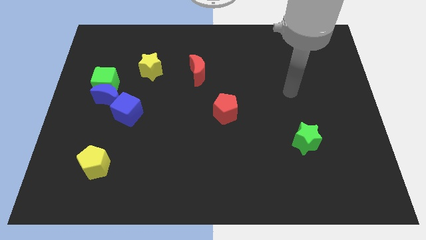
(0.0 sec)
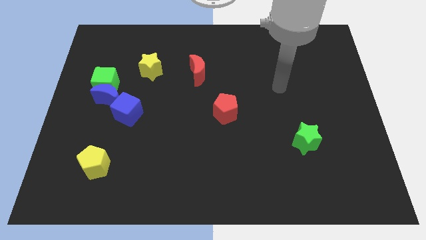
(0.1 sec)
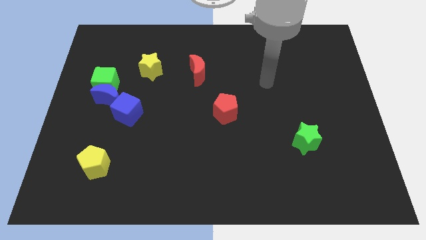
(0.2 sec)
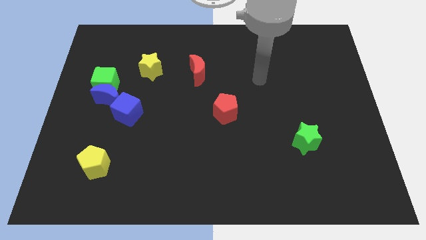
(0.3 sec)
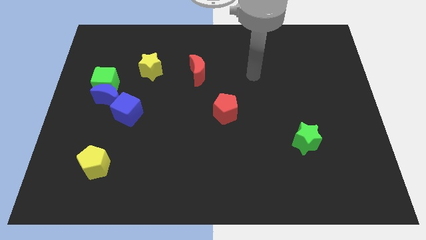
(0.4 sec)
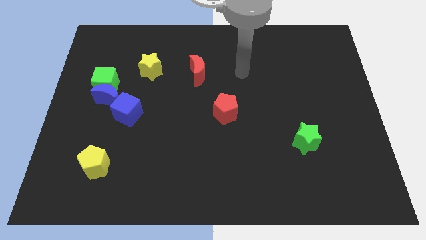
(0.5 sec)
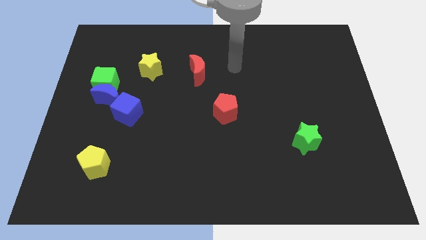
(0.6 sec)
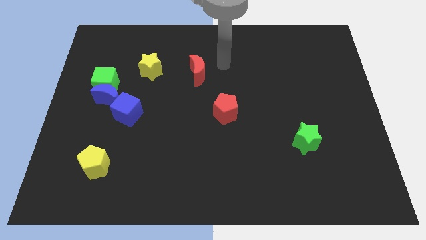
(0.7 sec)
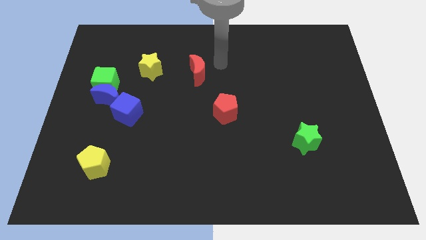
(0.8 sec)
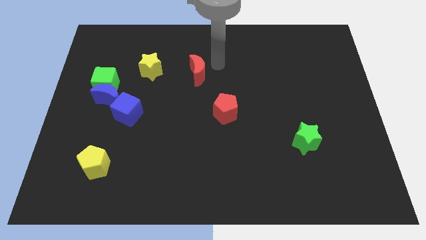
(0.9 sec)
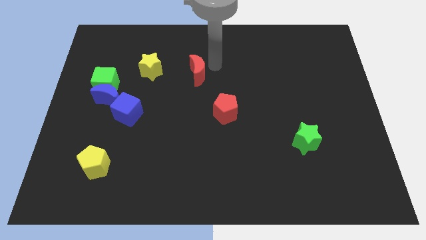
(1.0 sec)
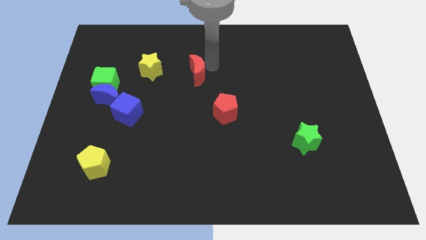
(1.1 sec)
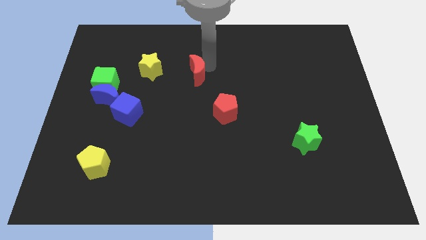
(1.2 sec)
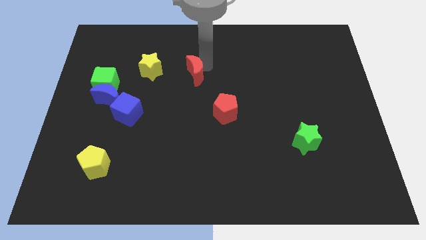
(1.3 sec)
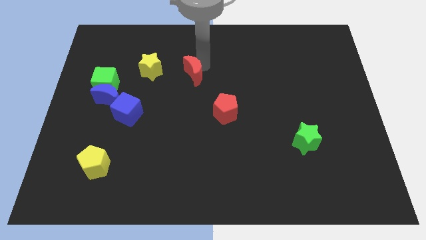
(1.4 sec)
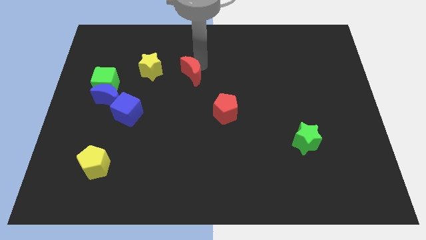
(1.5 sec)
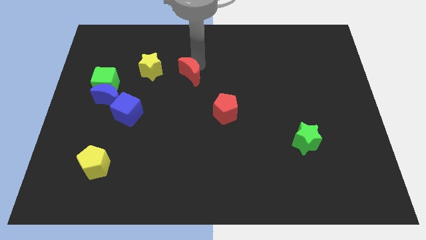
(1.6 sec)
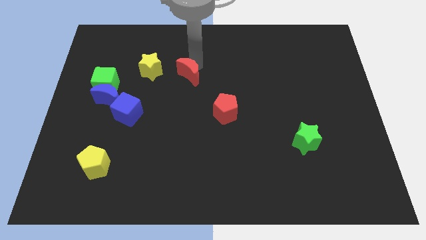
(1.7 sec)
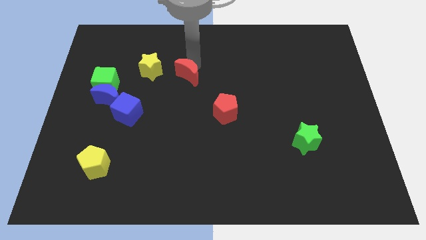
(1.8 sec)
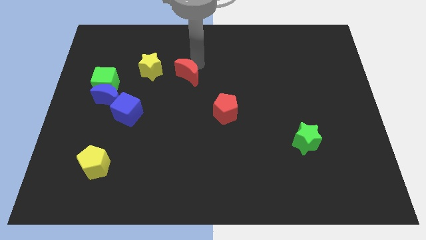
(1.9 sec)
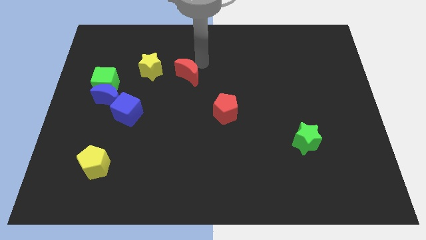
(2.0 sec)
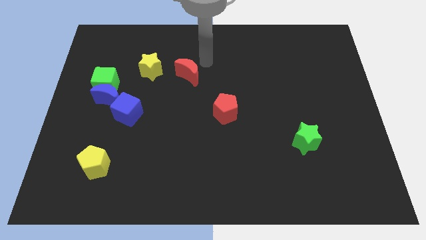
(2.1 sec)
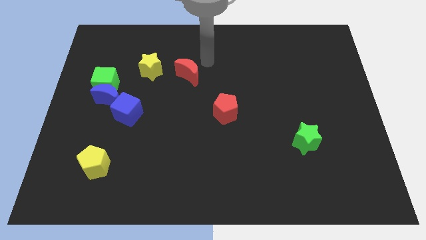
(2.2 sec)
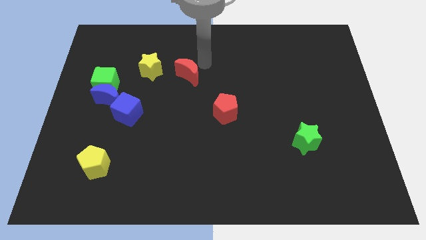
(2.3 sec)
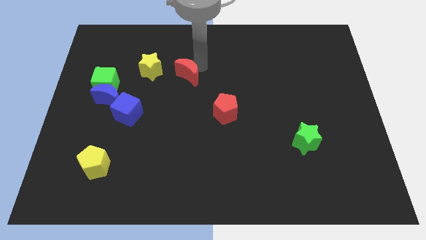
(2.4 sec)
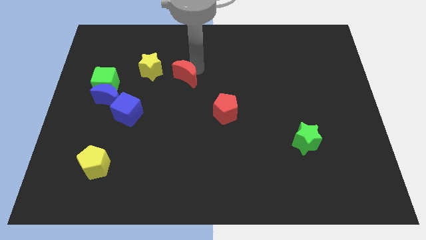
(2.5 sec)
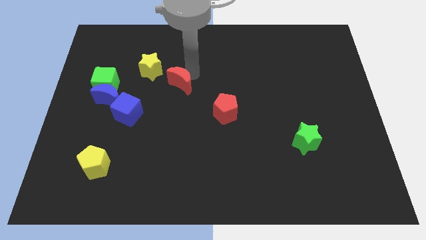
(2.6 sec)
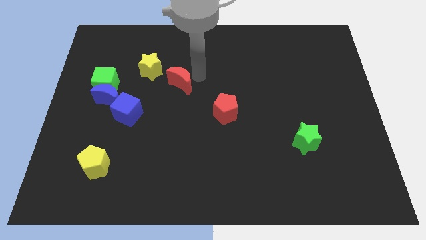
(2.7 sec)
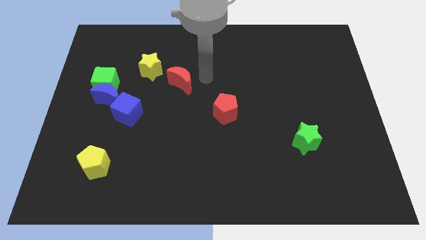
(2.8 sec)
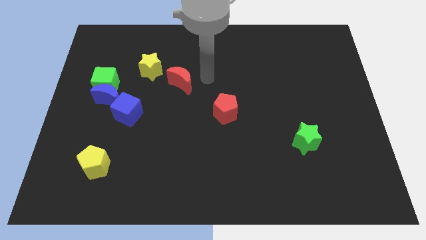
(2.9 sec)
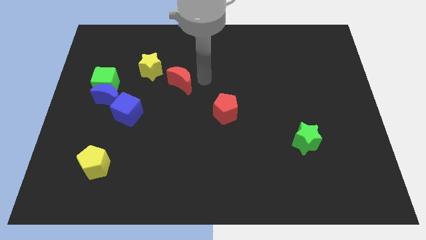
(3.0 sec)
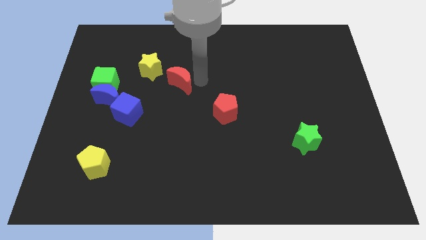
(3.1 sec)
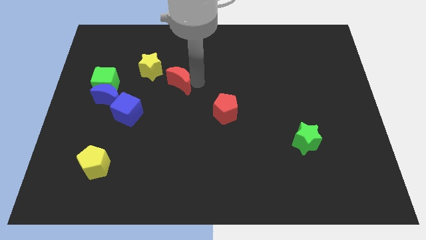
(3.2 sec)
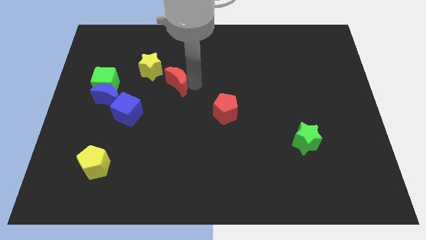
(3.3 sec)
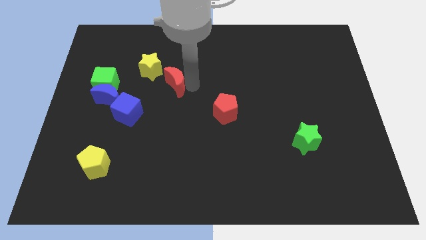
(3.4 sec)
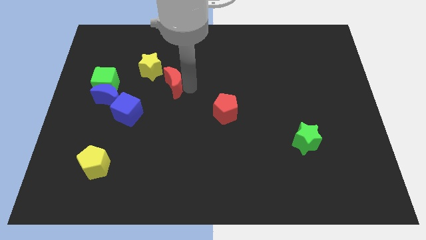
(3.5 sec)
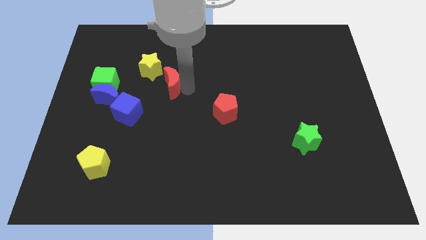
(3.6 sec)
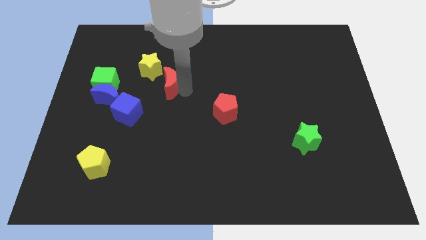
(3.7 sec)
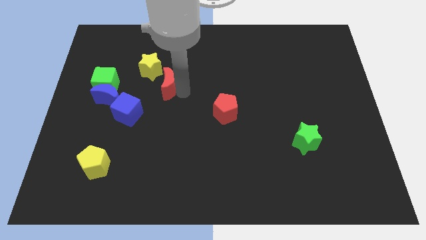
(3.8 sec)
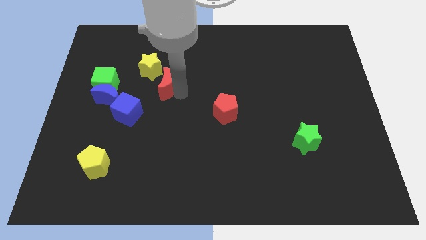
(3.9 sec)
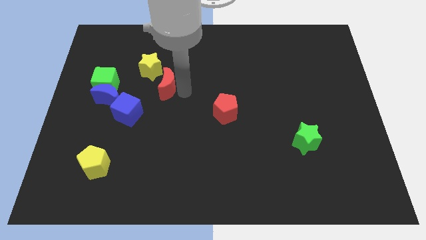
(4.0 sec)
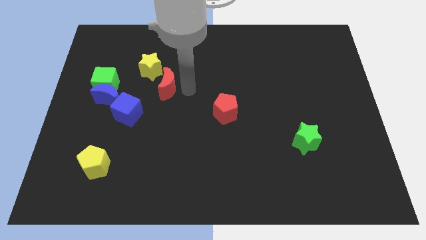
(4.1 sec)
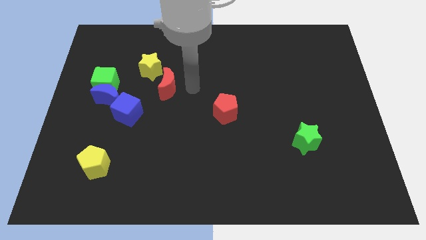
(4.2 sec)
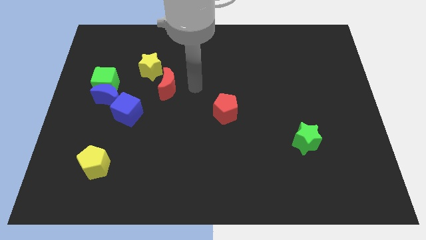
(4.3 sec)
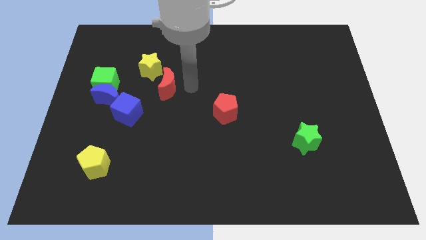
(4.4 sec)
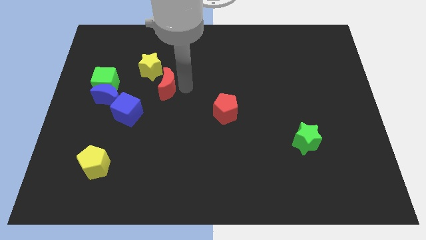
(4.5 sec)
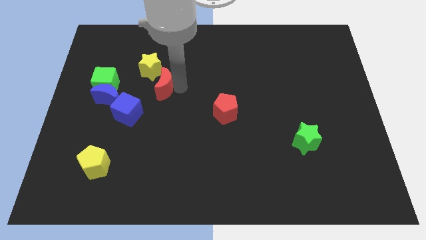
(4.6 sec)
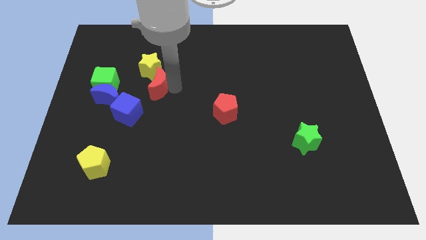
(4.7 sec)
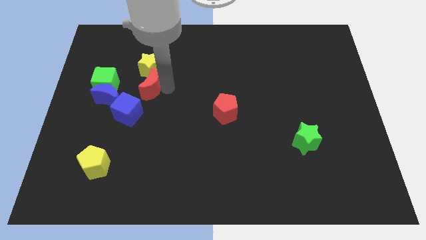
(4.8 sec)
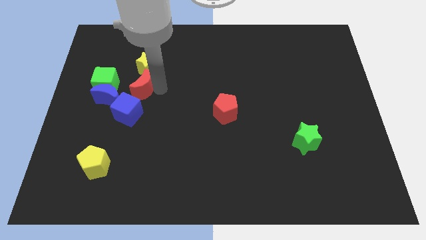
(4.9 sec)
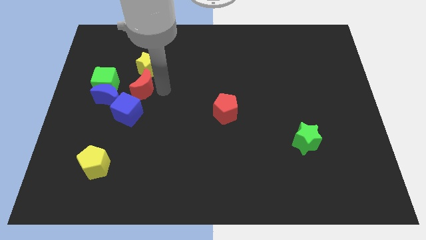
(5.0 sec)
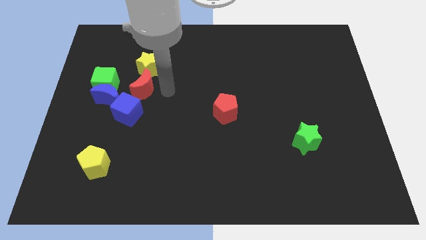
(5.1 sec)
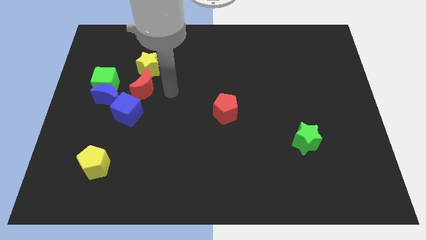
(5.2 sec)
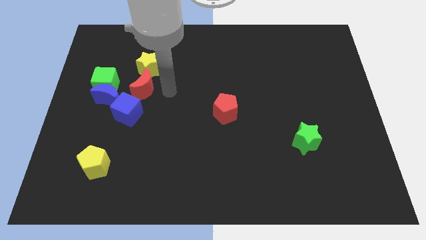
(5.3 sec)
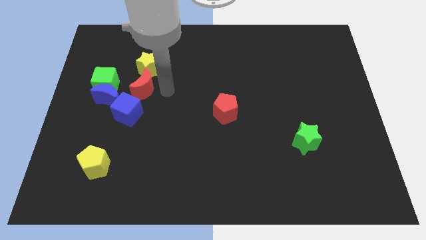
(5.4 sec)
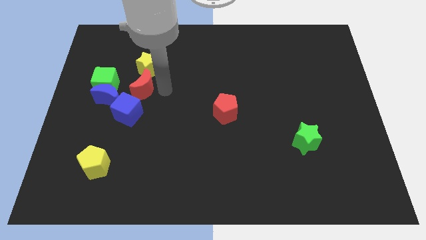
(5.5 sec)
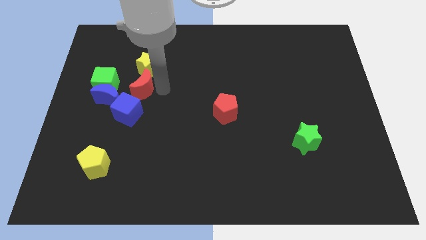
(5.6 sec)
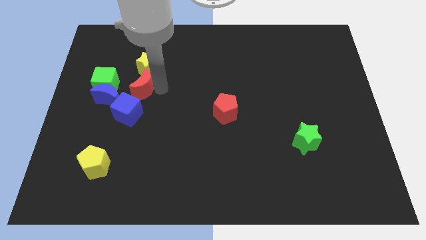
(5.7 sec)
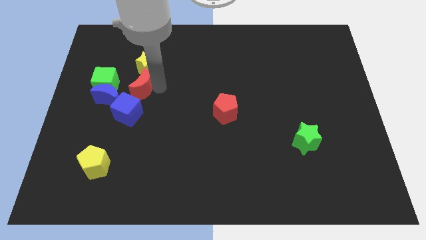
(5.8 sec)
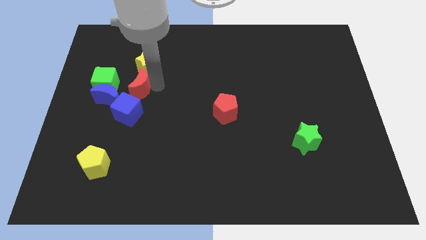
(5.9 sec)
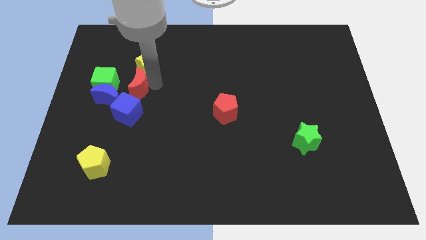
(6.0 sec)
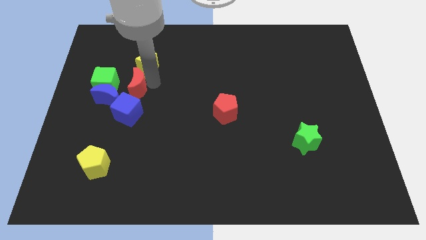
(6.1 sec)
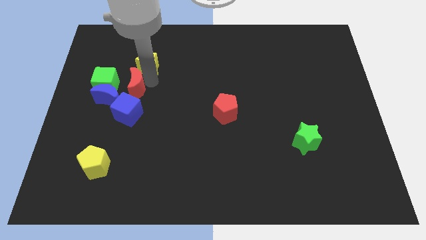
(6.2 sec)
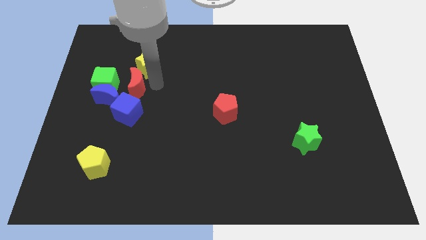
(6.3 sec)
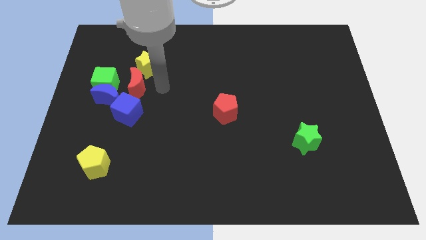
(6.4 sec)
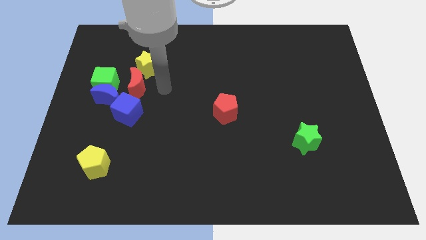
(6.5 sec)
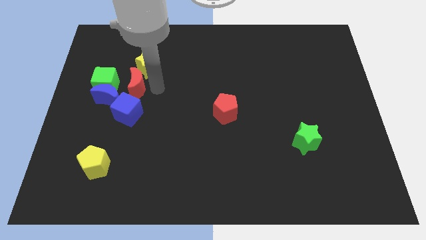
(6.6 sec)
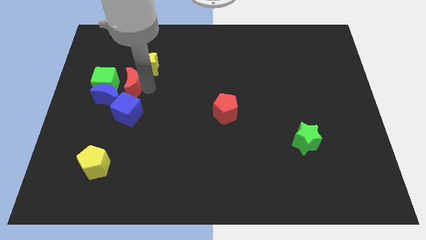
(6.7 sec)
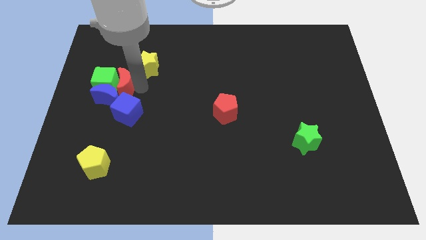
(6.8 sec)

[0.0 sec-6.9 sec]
put the red moon next to the green cube

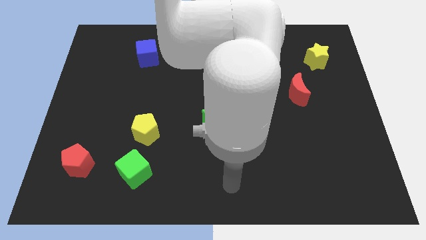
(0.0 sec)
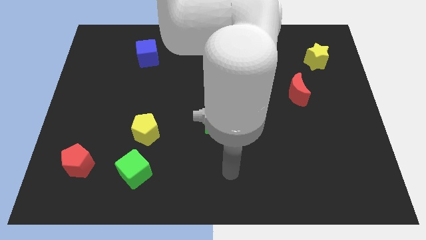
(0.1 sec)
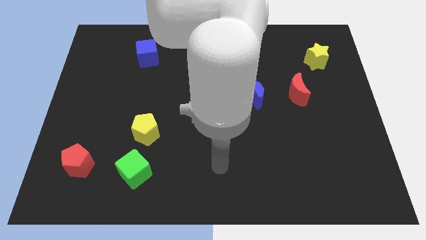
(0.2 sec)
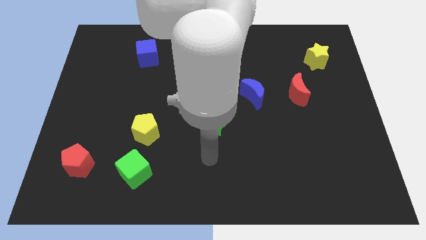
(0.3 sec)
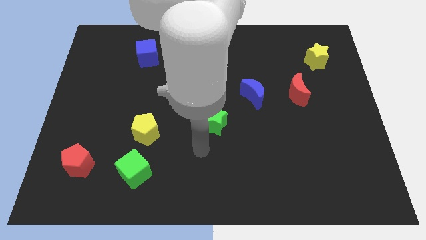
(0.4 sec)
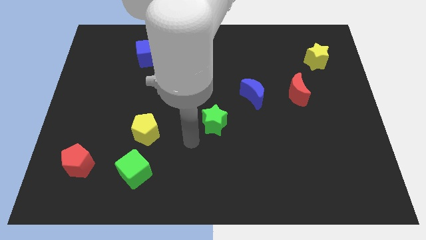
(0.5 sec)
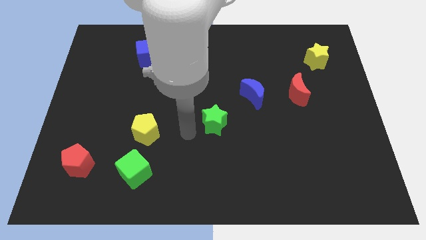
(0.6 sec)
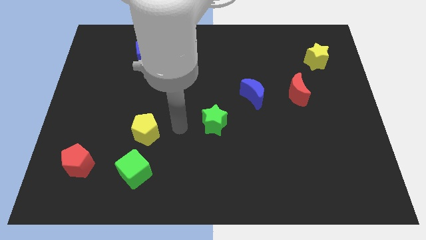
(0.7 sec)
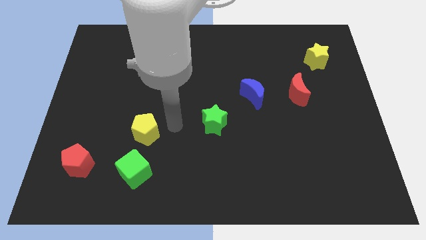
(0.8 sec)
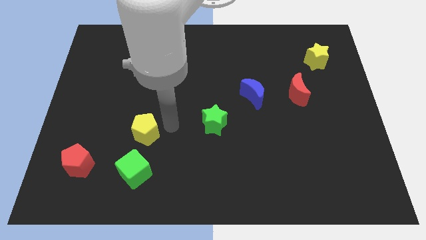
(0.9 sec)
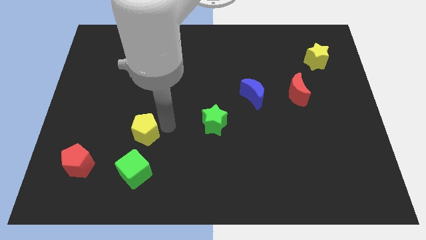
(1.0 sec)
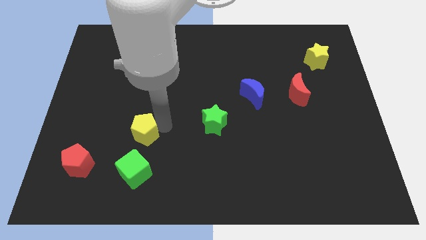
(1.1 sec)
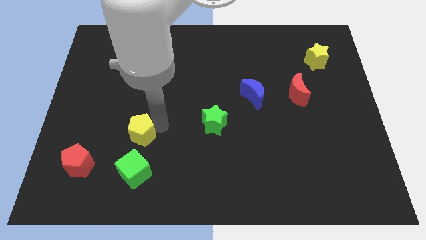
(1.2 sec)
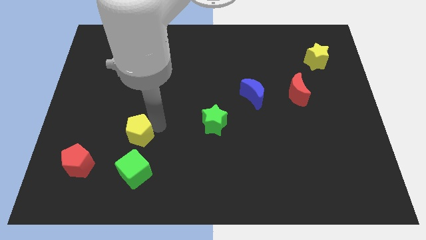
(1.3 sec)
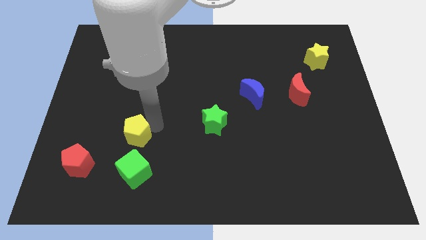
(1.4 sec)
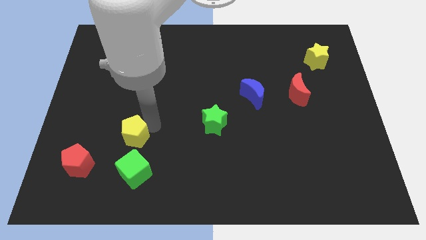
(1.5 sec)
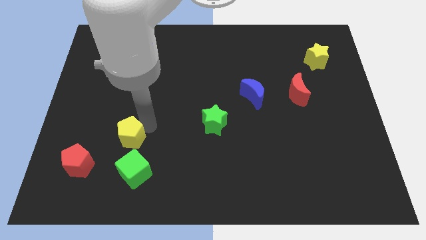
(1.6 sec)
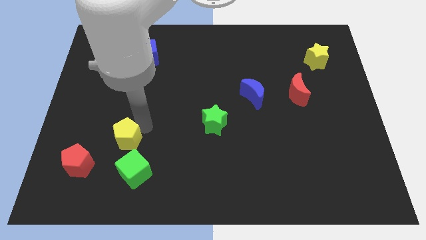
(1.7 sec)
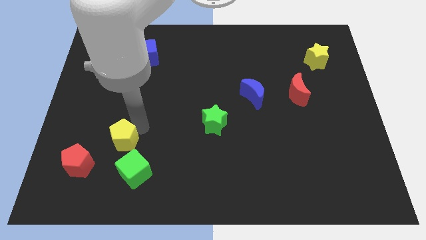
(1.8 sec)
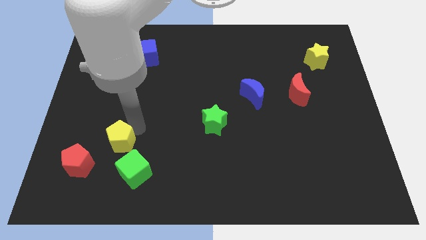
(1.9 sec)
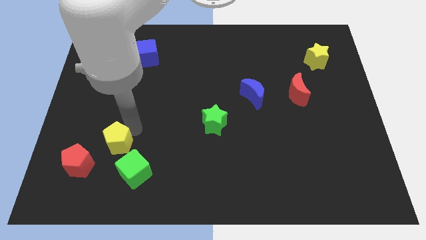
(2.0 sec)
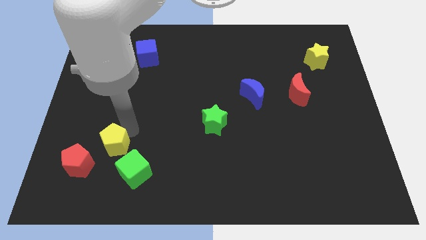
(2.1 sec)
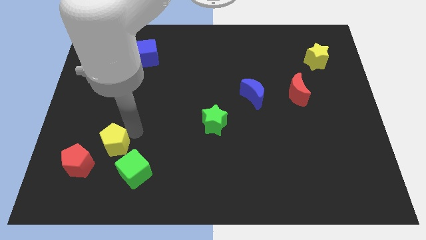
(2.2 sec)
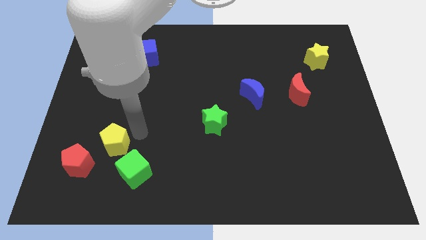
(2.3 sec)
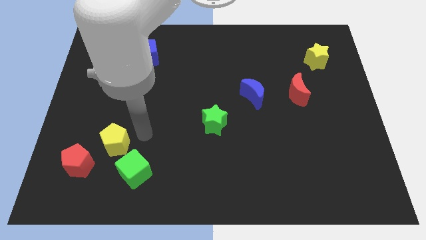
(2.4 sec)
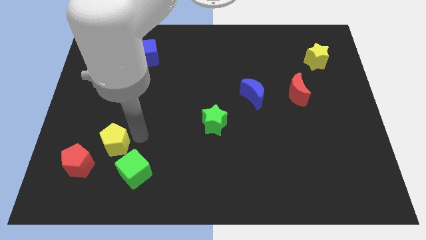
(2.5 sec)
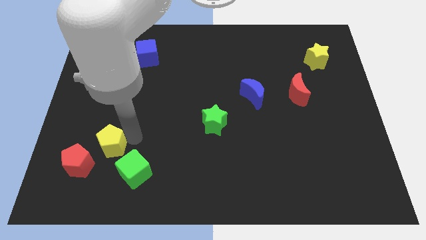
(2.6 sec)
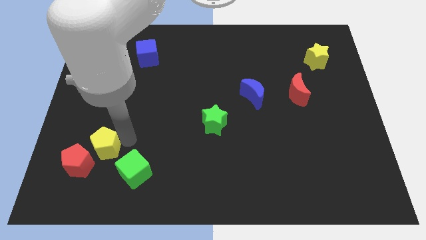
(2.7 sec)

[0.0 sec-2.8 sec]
move the yellow pentagon to the red pentagon
